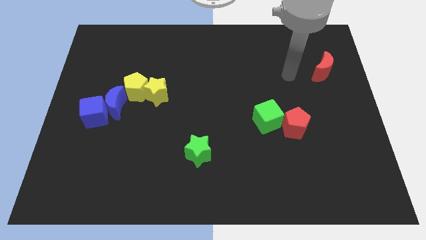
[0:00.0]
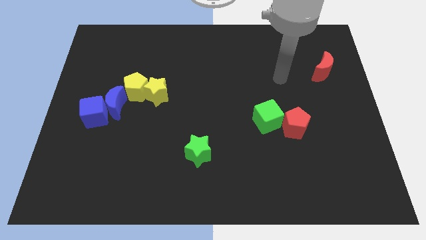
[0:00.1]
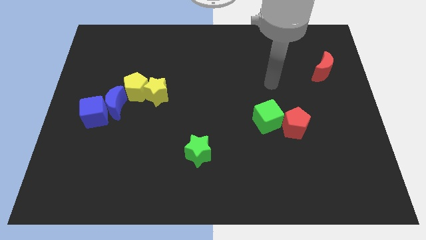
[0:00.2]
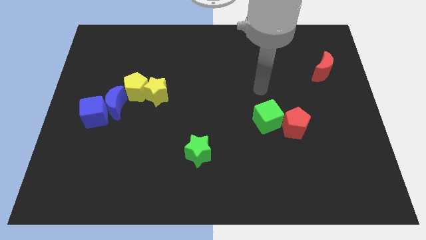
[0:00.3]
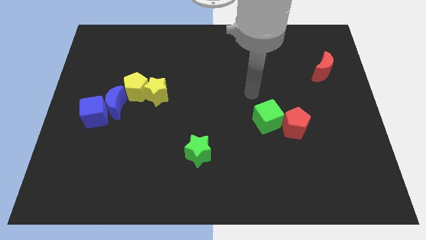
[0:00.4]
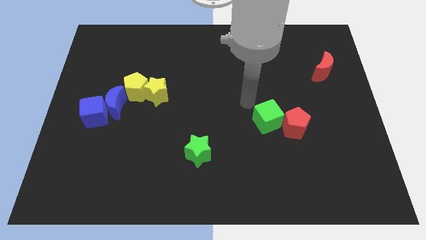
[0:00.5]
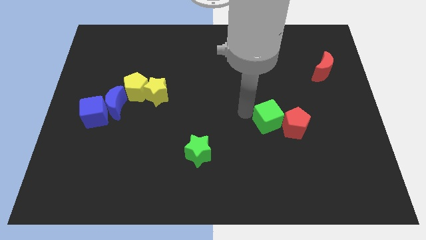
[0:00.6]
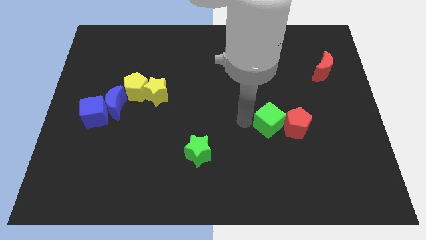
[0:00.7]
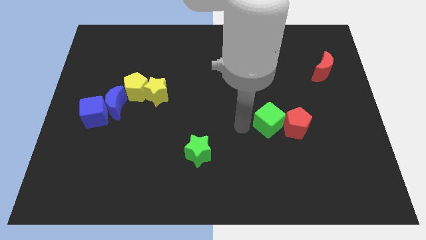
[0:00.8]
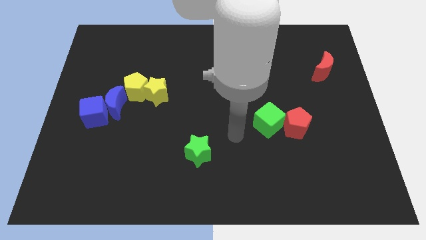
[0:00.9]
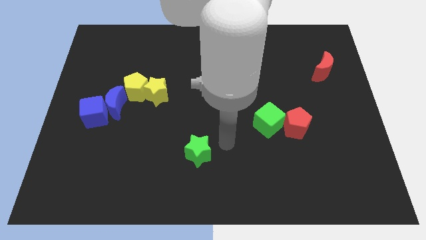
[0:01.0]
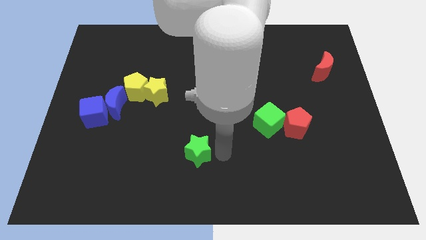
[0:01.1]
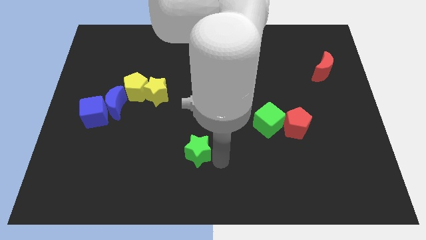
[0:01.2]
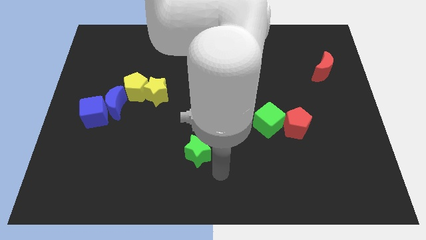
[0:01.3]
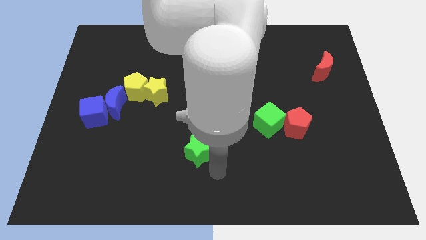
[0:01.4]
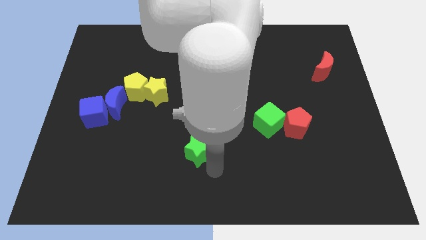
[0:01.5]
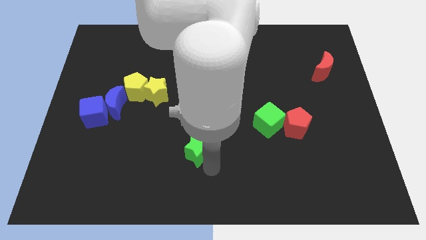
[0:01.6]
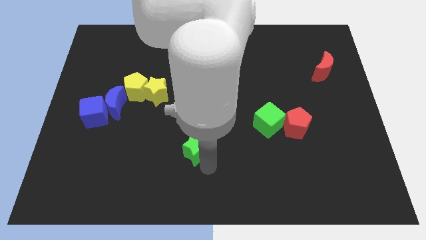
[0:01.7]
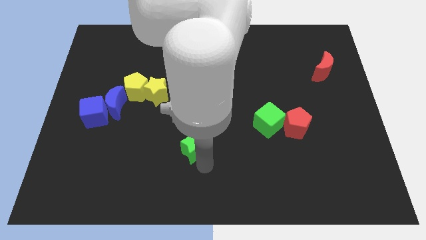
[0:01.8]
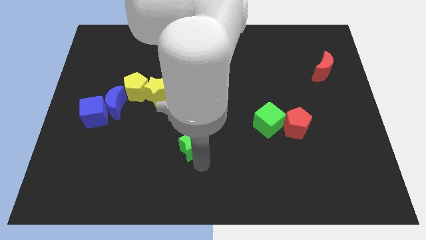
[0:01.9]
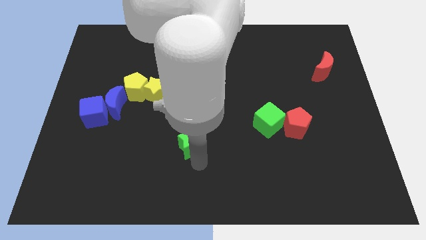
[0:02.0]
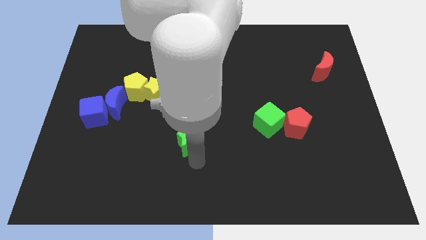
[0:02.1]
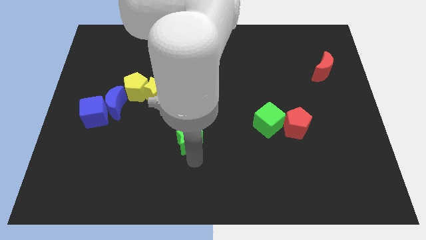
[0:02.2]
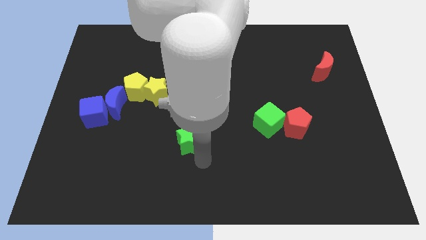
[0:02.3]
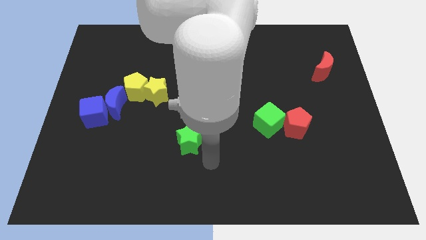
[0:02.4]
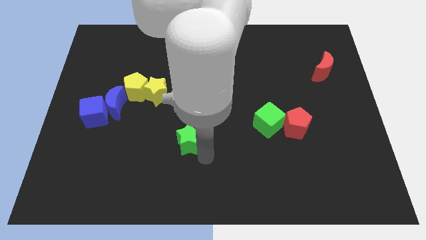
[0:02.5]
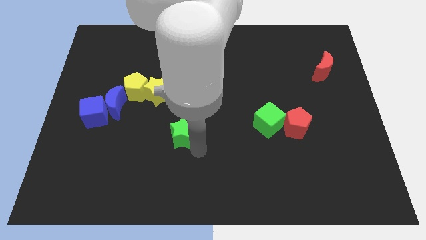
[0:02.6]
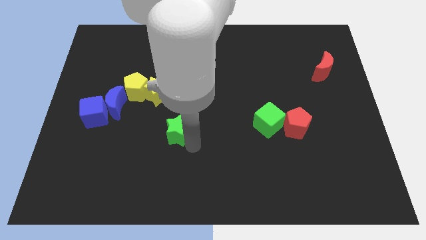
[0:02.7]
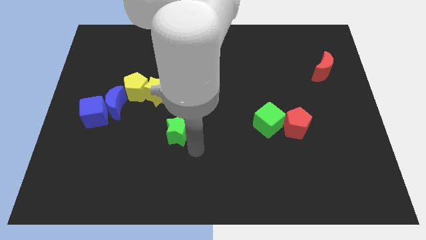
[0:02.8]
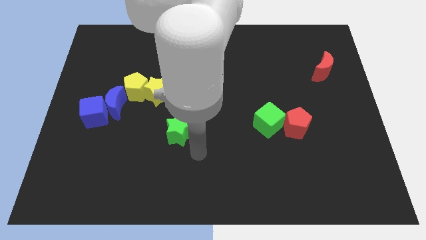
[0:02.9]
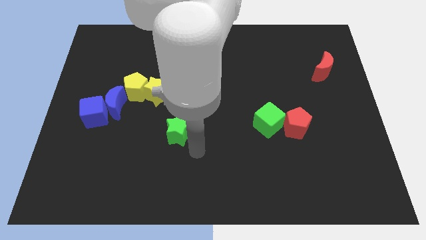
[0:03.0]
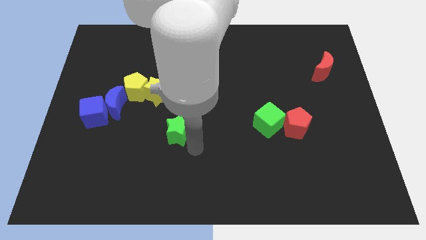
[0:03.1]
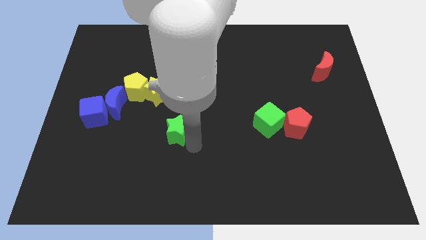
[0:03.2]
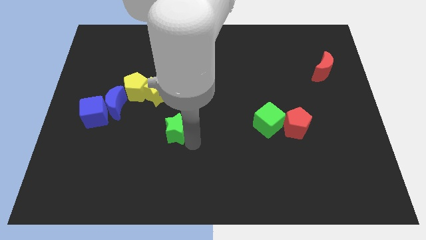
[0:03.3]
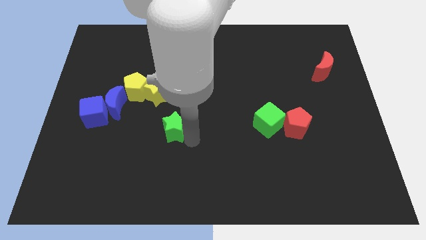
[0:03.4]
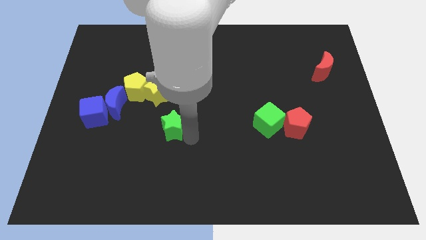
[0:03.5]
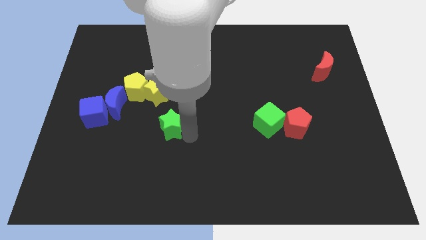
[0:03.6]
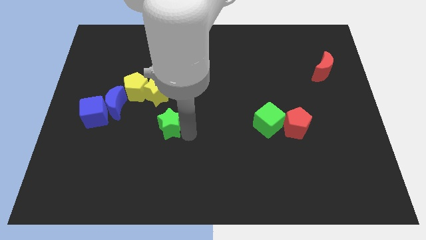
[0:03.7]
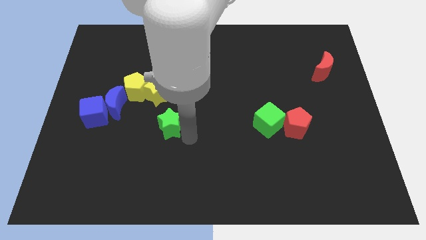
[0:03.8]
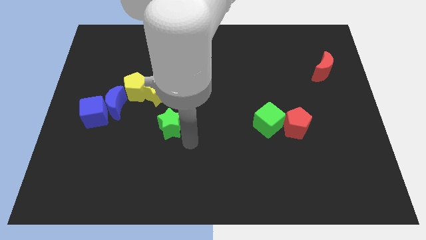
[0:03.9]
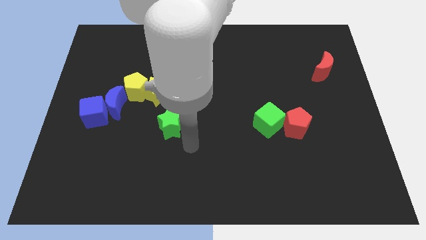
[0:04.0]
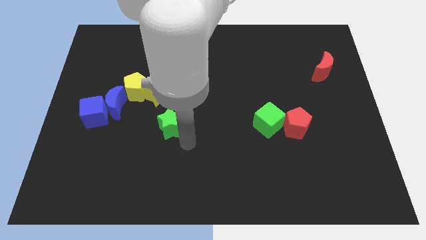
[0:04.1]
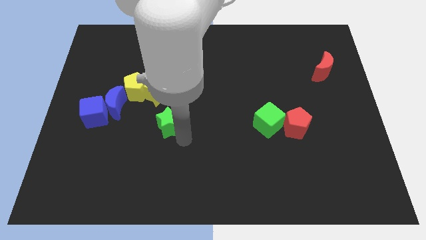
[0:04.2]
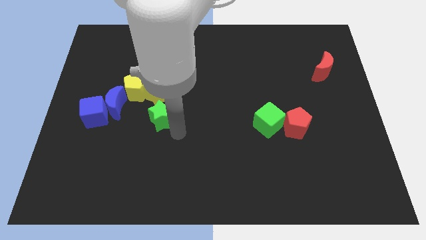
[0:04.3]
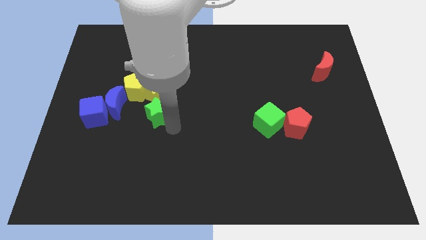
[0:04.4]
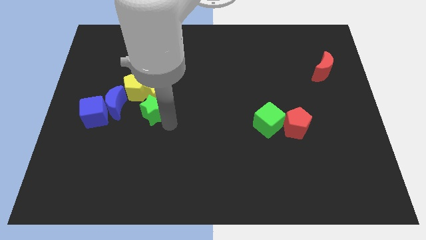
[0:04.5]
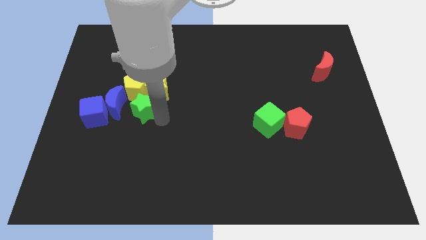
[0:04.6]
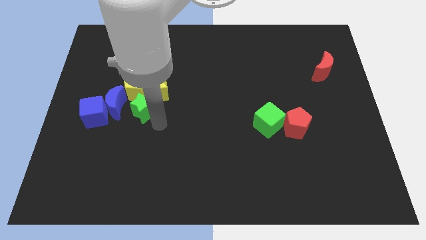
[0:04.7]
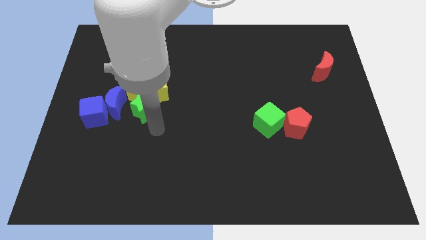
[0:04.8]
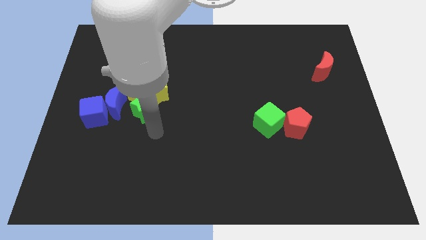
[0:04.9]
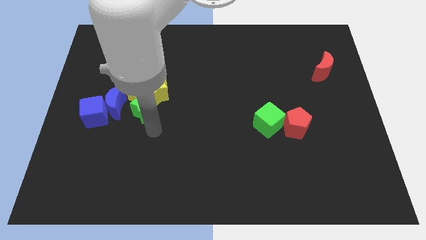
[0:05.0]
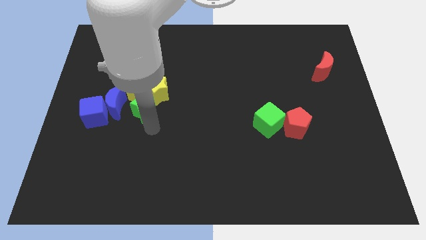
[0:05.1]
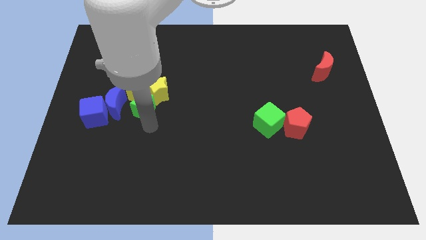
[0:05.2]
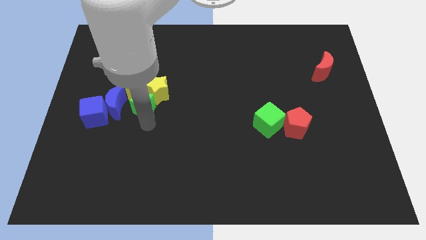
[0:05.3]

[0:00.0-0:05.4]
move the green star next to the yellow pentagon

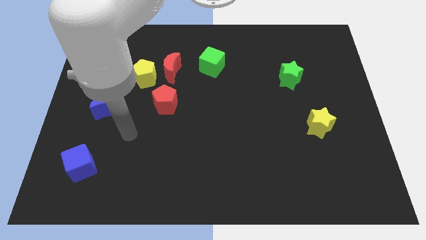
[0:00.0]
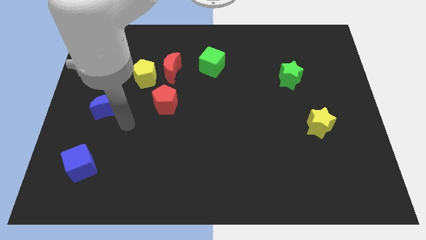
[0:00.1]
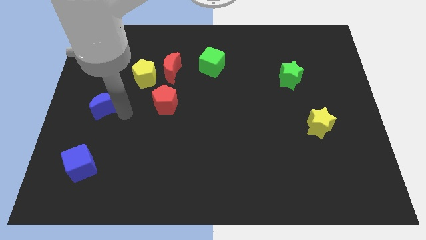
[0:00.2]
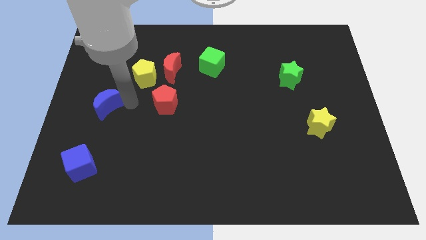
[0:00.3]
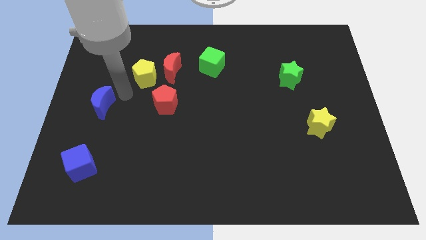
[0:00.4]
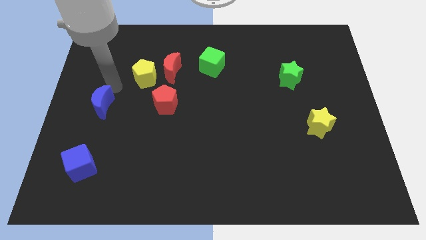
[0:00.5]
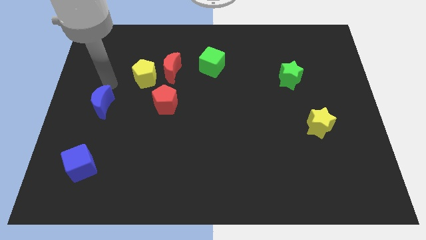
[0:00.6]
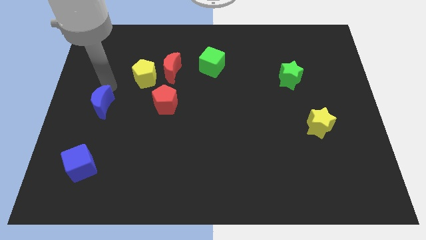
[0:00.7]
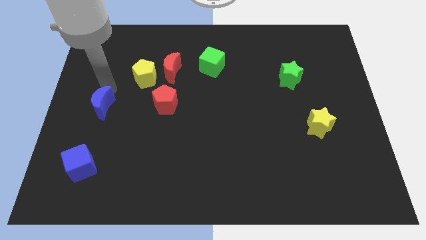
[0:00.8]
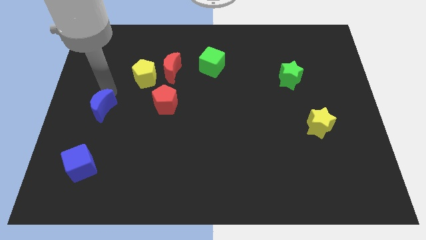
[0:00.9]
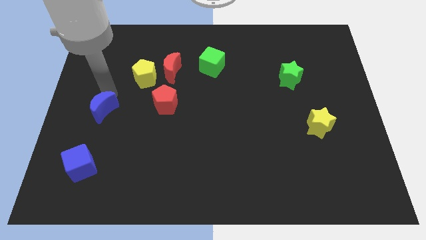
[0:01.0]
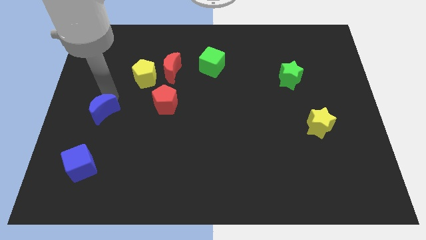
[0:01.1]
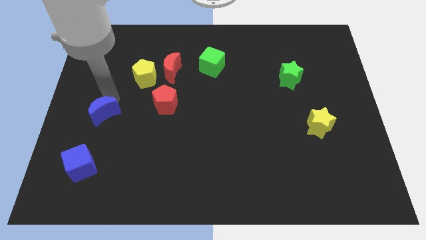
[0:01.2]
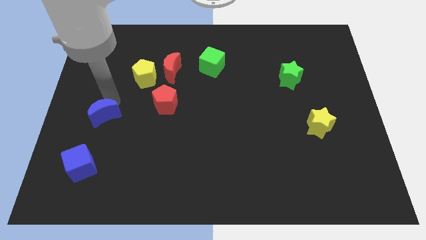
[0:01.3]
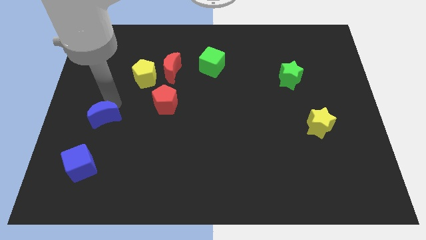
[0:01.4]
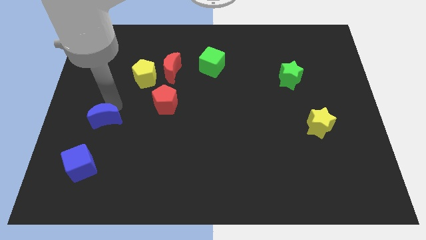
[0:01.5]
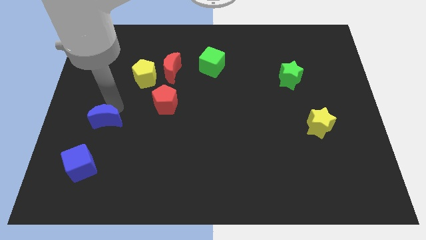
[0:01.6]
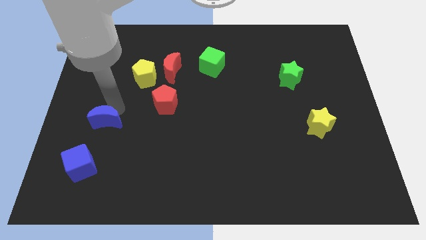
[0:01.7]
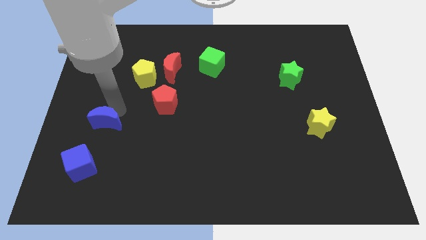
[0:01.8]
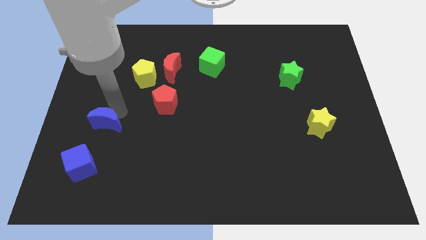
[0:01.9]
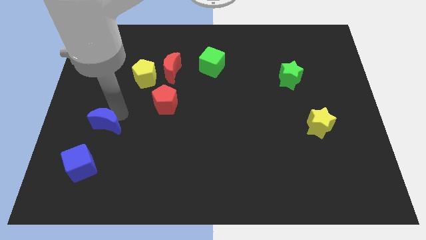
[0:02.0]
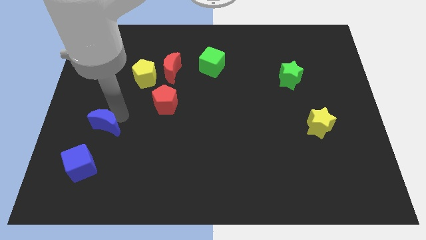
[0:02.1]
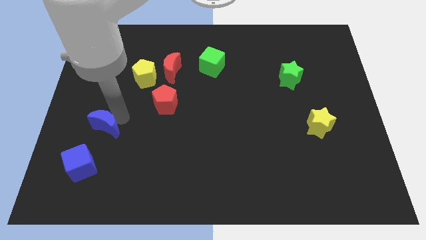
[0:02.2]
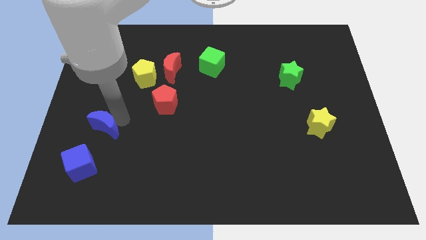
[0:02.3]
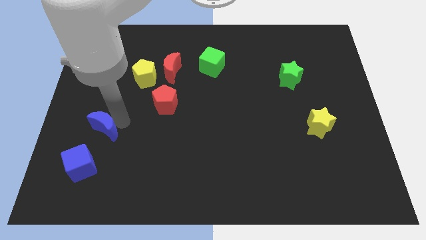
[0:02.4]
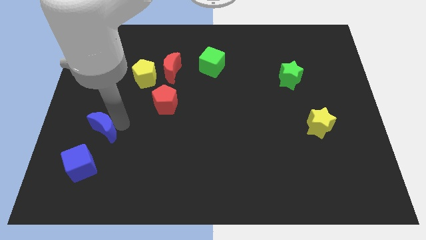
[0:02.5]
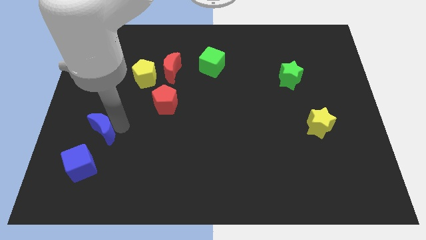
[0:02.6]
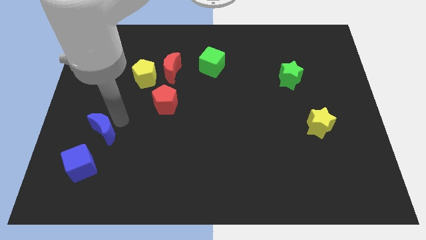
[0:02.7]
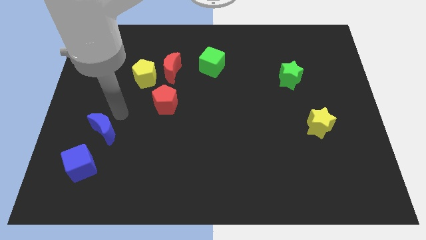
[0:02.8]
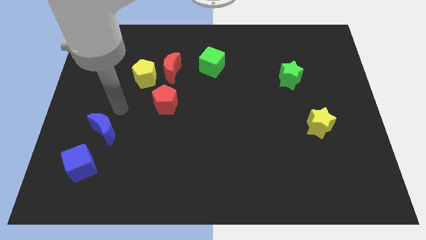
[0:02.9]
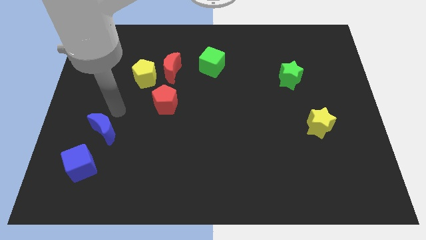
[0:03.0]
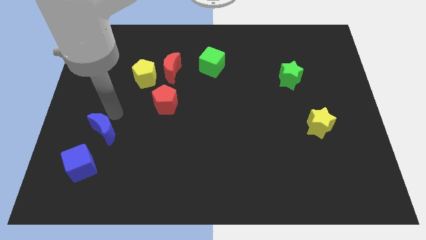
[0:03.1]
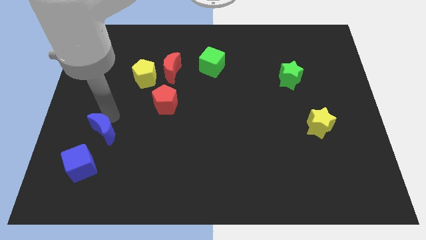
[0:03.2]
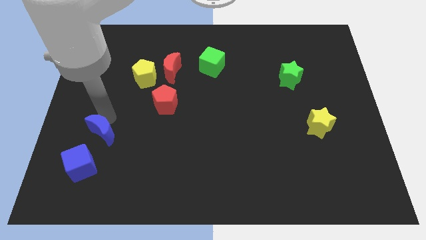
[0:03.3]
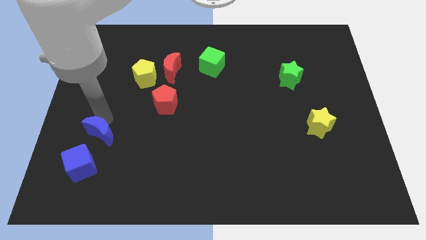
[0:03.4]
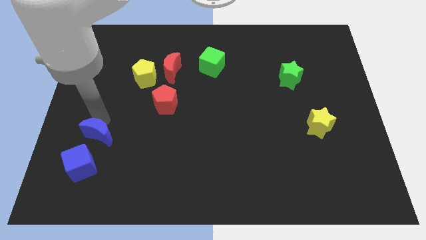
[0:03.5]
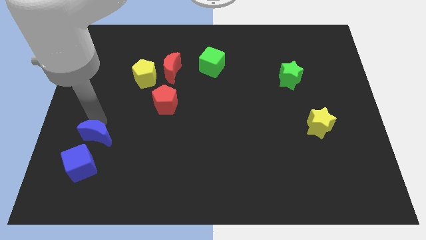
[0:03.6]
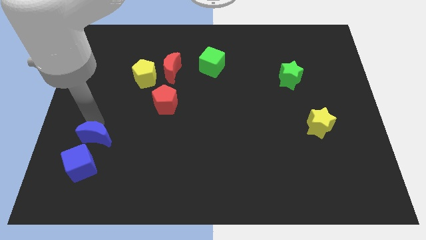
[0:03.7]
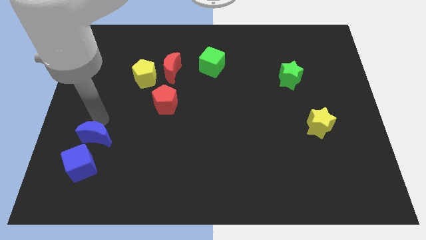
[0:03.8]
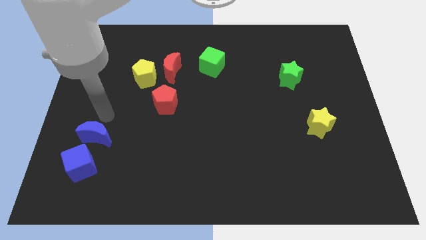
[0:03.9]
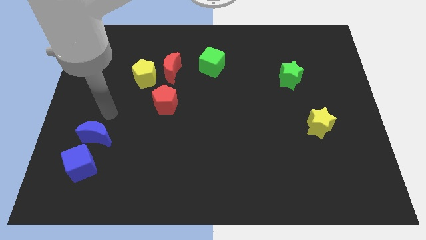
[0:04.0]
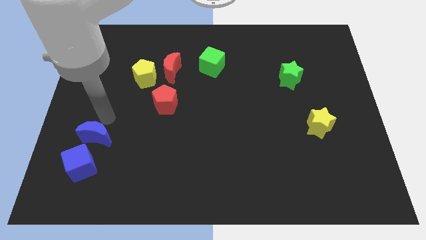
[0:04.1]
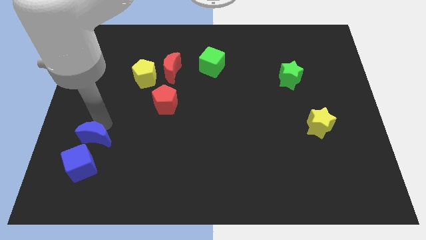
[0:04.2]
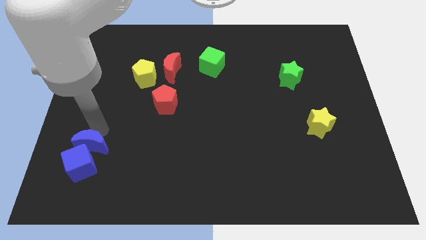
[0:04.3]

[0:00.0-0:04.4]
slide the blue moon close to the blue cube
